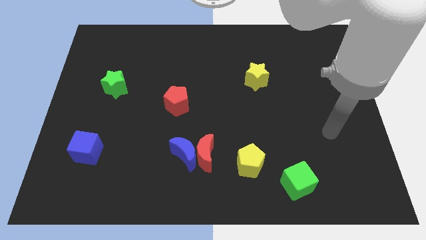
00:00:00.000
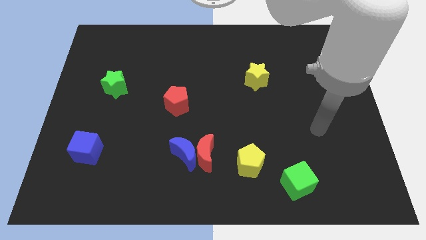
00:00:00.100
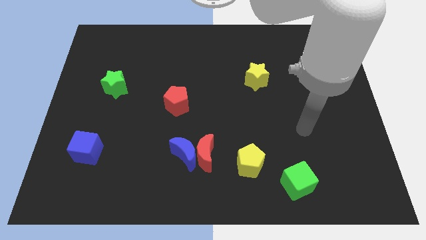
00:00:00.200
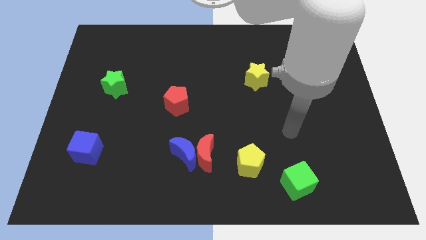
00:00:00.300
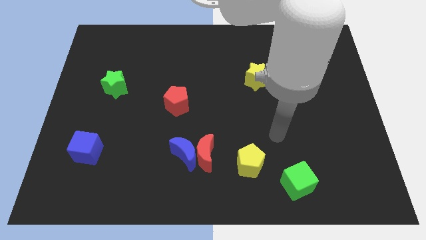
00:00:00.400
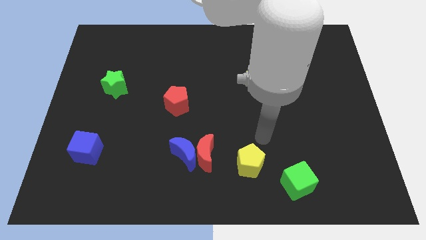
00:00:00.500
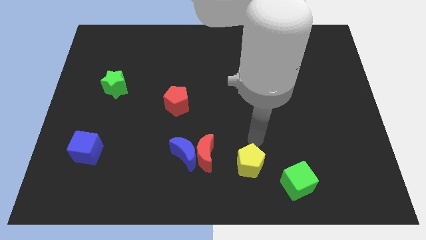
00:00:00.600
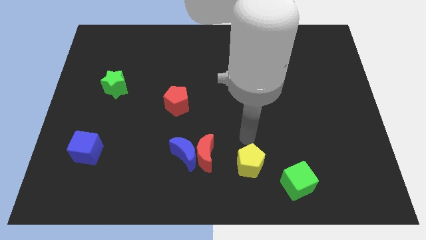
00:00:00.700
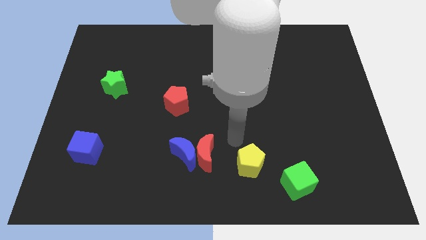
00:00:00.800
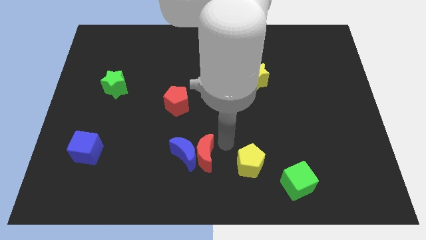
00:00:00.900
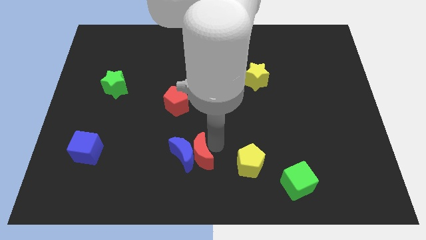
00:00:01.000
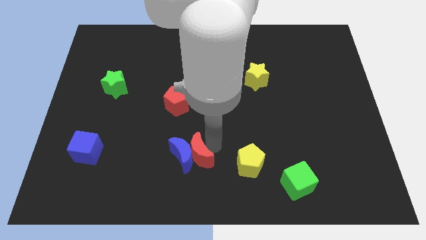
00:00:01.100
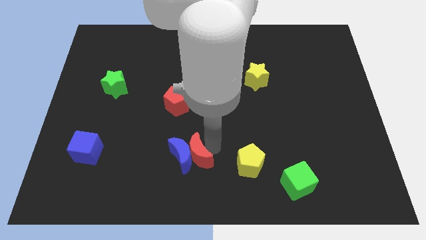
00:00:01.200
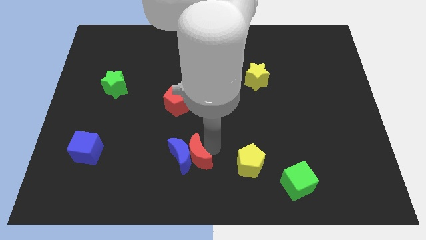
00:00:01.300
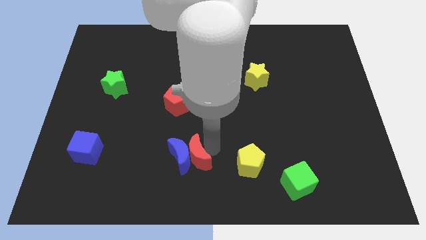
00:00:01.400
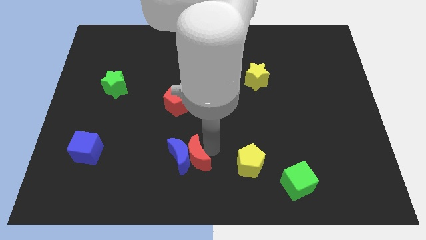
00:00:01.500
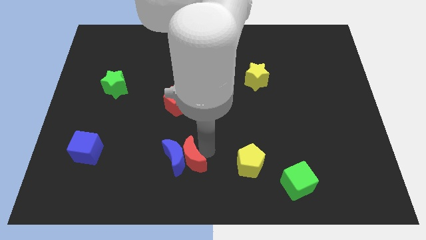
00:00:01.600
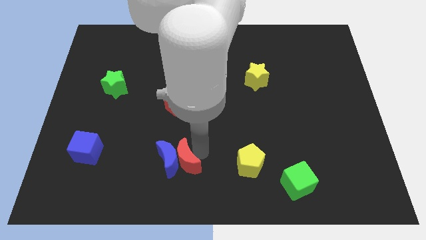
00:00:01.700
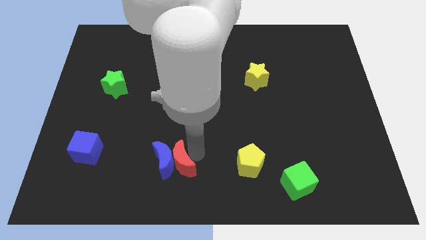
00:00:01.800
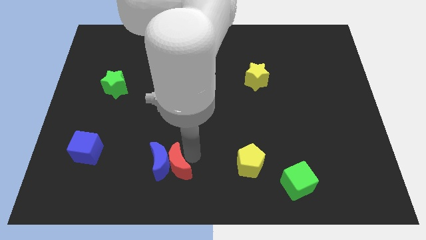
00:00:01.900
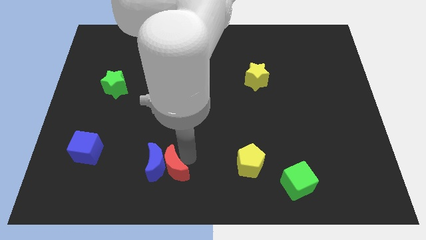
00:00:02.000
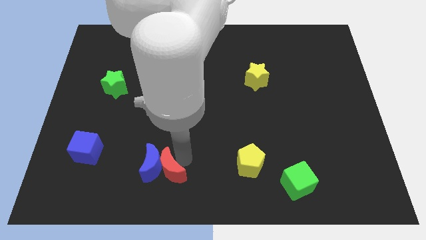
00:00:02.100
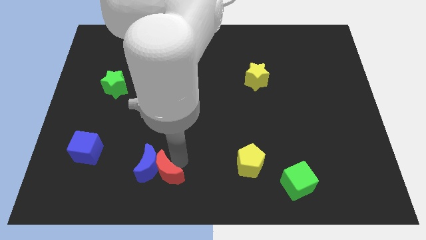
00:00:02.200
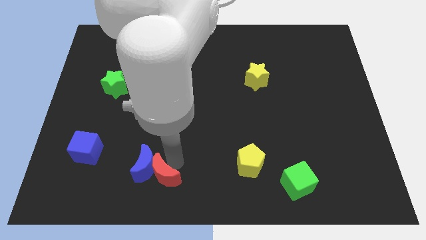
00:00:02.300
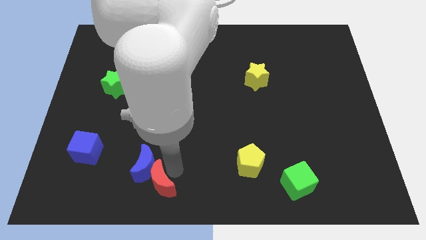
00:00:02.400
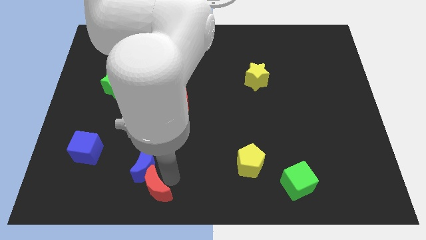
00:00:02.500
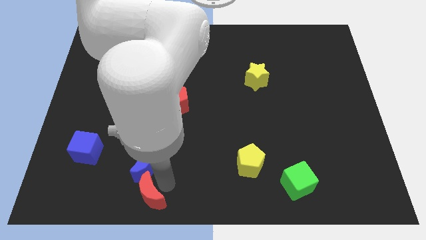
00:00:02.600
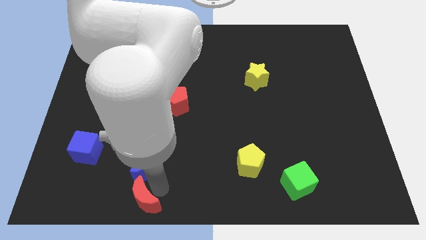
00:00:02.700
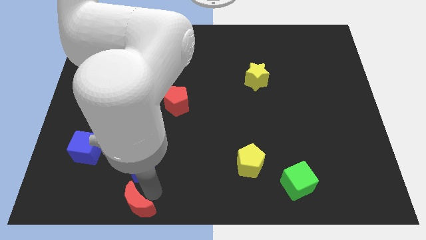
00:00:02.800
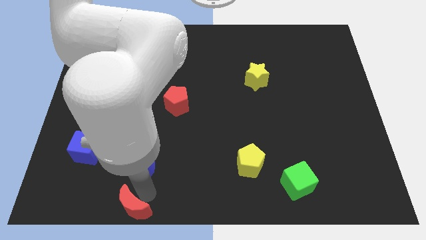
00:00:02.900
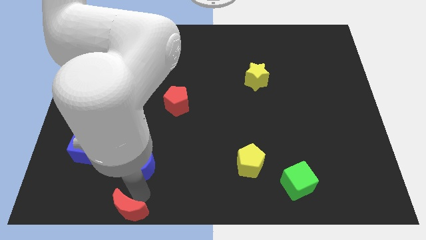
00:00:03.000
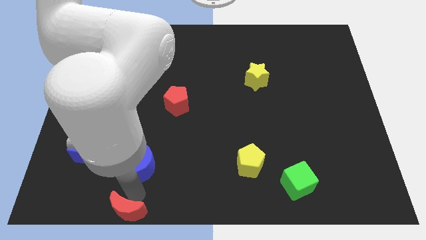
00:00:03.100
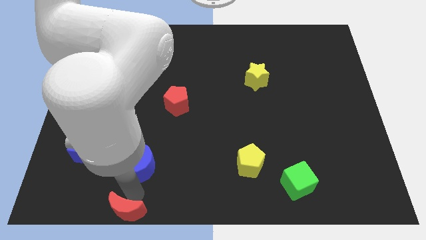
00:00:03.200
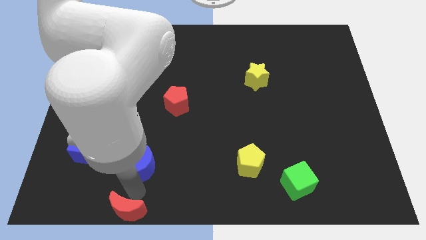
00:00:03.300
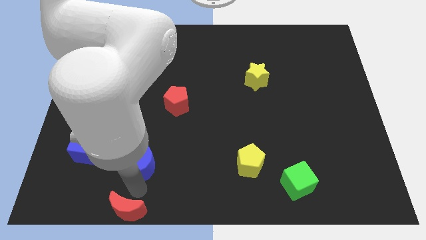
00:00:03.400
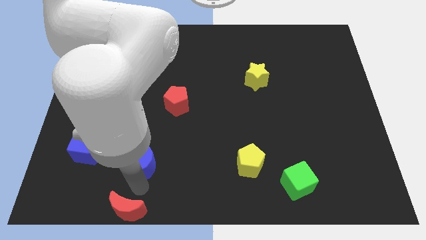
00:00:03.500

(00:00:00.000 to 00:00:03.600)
separate the blue moon from the red moon

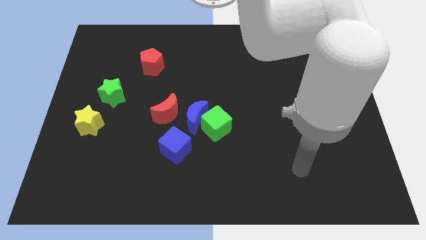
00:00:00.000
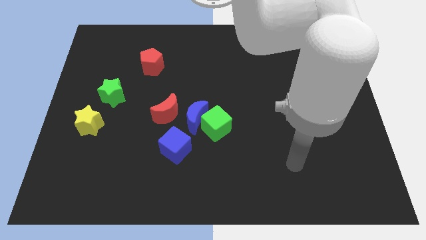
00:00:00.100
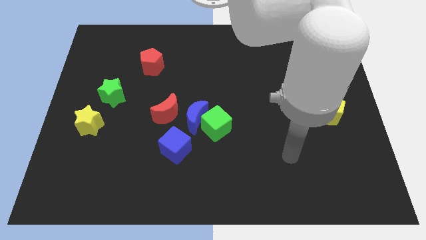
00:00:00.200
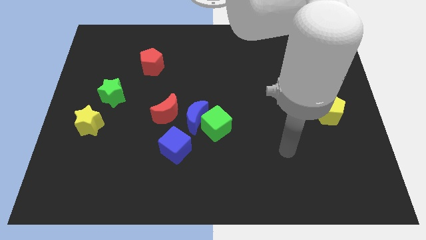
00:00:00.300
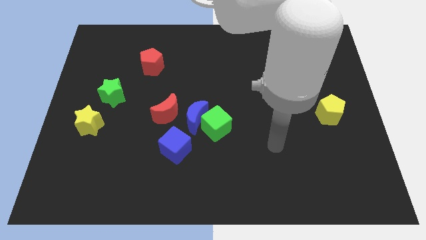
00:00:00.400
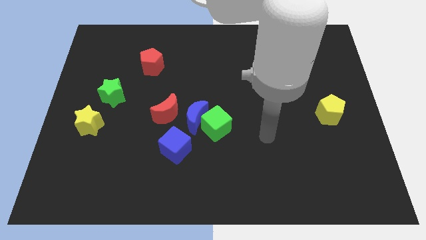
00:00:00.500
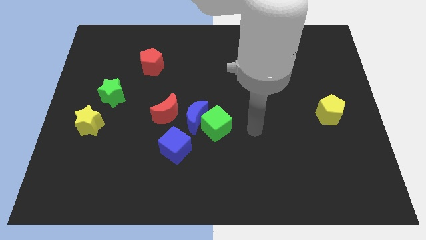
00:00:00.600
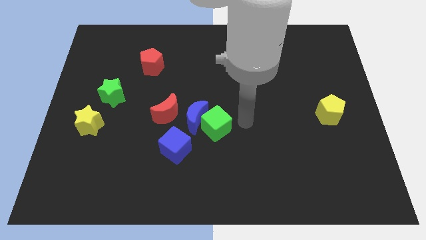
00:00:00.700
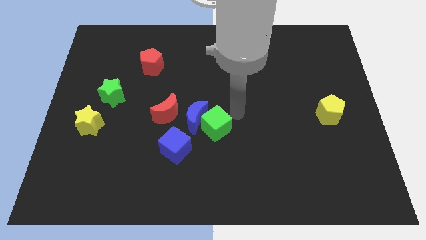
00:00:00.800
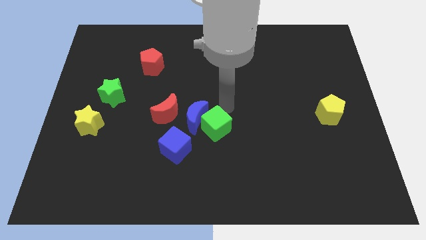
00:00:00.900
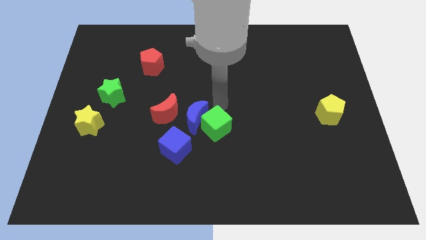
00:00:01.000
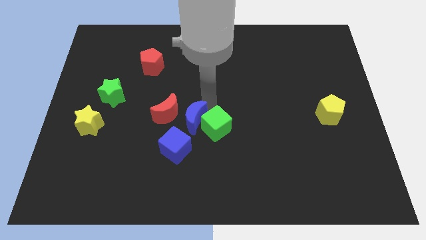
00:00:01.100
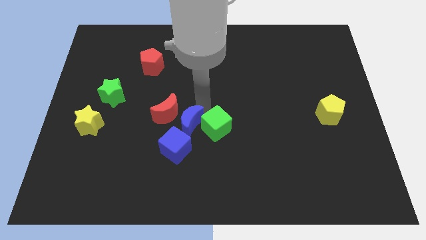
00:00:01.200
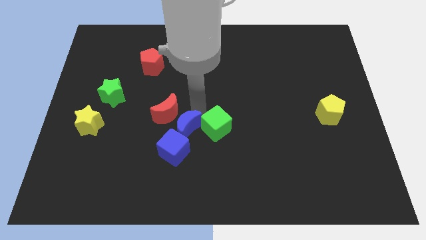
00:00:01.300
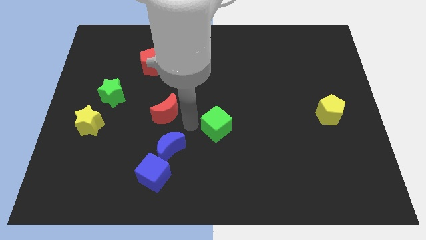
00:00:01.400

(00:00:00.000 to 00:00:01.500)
pull the green cube apart from the blue moon

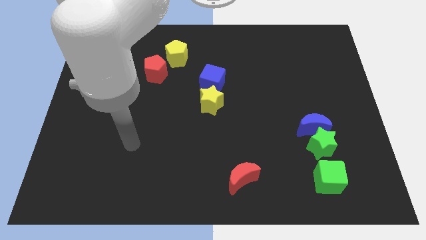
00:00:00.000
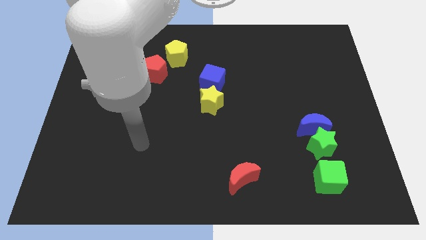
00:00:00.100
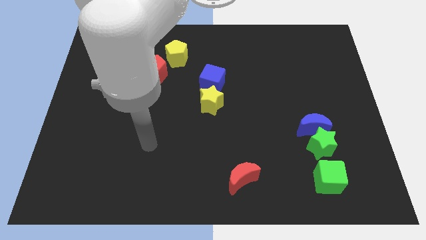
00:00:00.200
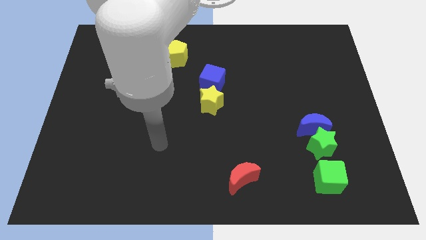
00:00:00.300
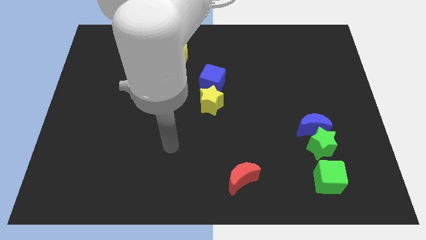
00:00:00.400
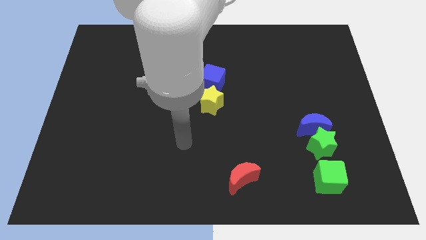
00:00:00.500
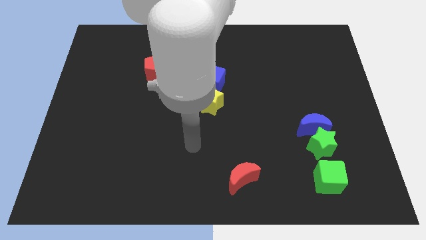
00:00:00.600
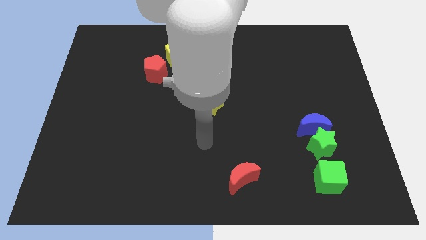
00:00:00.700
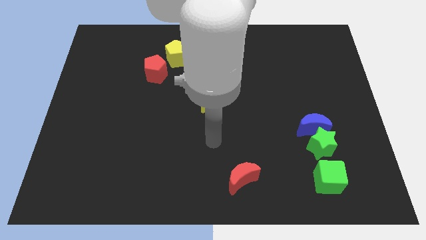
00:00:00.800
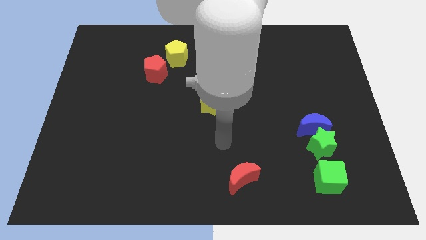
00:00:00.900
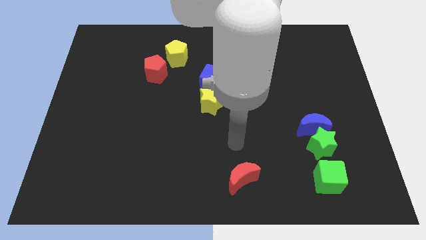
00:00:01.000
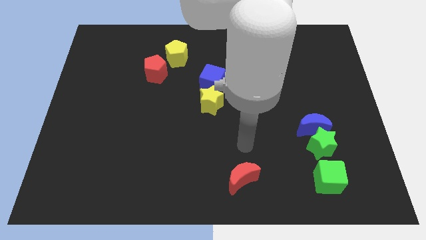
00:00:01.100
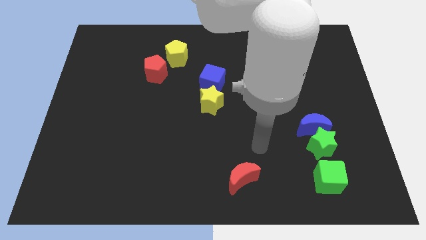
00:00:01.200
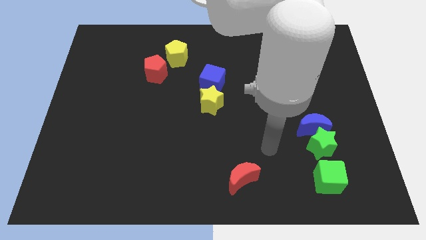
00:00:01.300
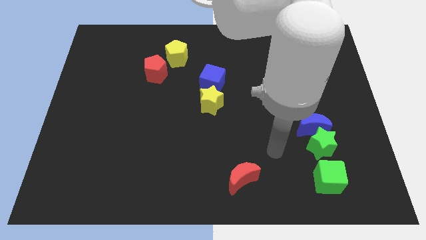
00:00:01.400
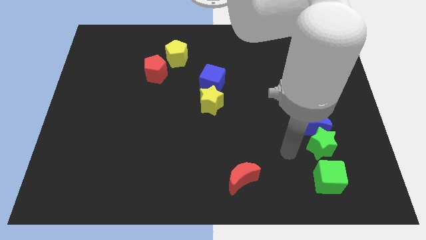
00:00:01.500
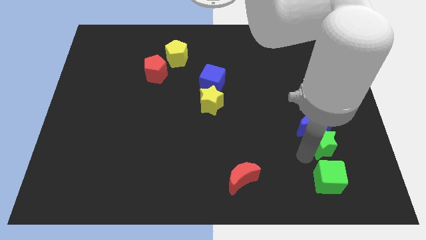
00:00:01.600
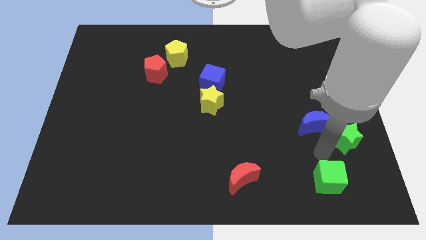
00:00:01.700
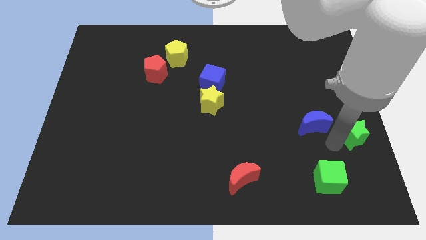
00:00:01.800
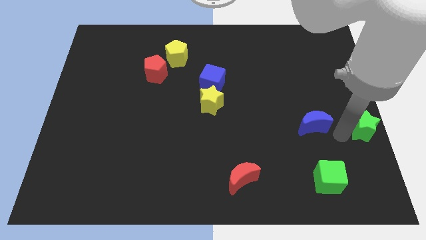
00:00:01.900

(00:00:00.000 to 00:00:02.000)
separate the blue moon from the green star

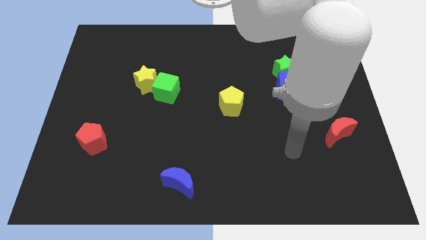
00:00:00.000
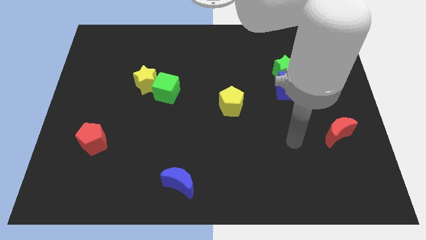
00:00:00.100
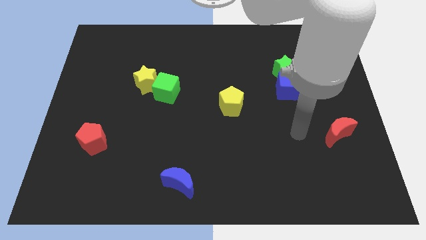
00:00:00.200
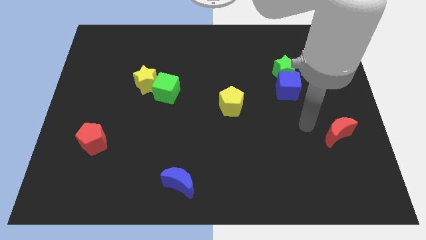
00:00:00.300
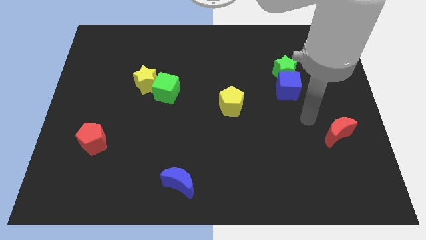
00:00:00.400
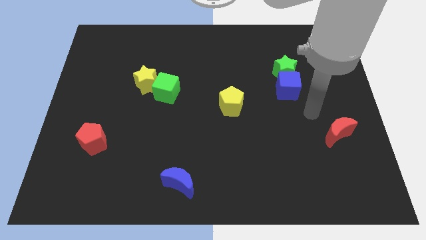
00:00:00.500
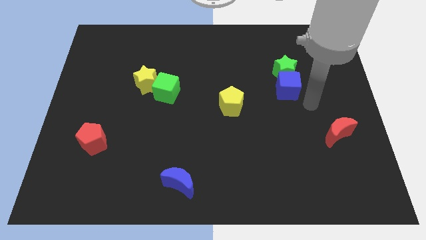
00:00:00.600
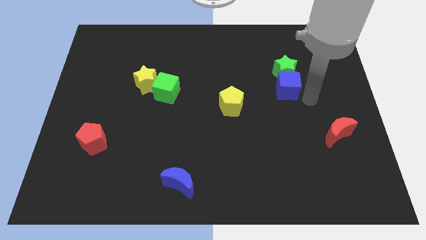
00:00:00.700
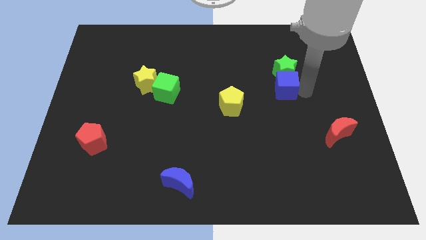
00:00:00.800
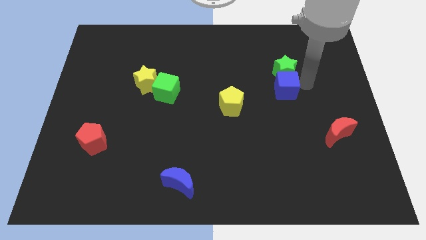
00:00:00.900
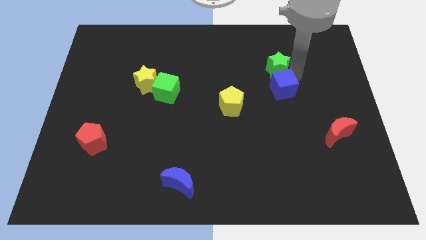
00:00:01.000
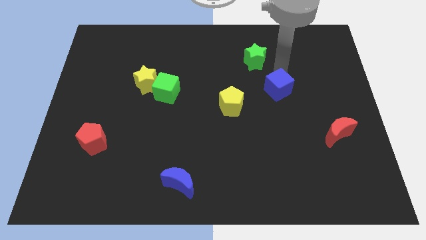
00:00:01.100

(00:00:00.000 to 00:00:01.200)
move the blue cube away from the green star

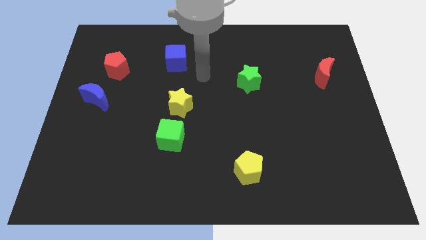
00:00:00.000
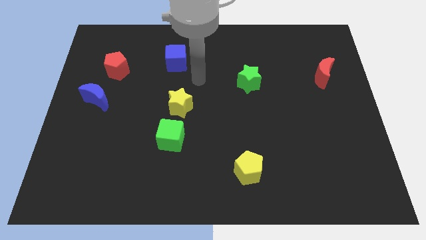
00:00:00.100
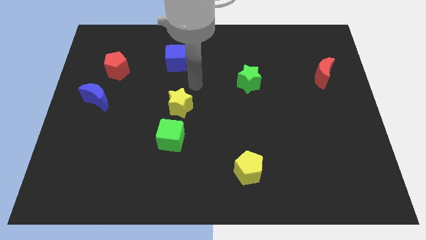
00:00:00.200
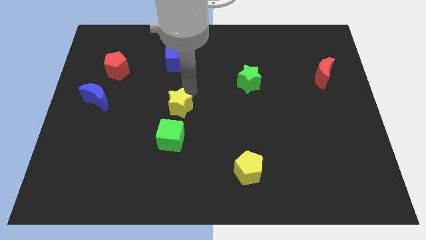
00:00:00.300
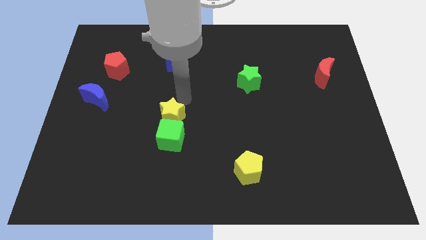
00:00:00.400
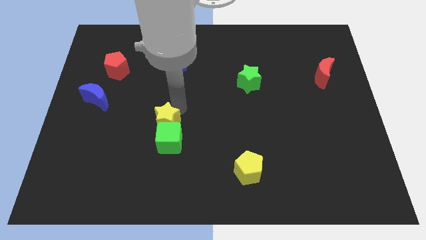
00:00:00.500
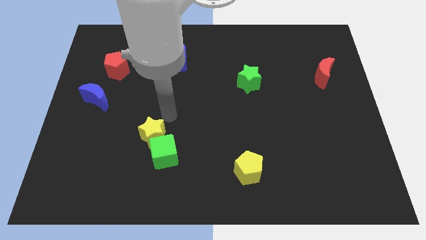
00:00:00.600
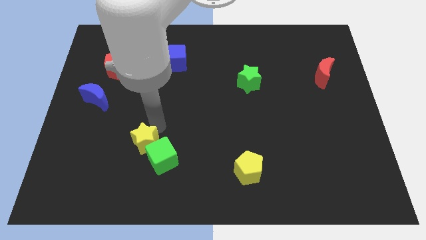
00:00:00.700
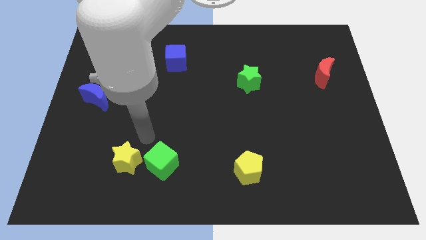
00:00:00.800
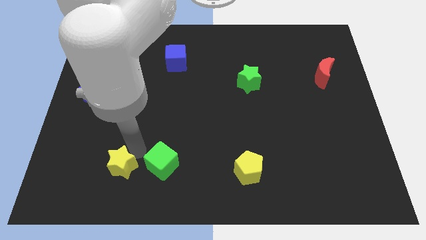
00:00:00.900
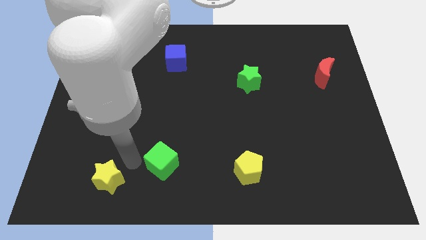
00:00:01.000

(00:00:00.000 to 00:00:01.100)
pull the green cube apart from the yellow star
